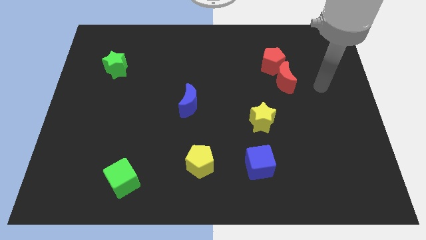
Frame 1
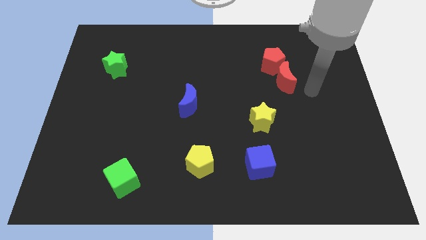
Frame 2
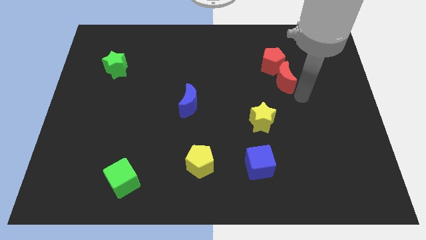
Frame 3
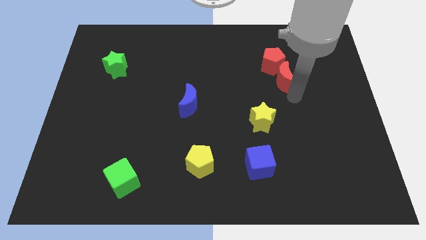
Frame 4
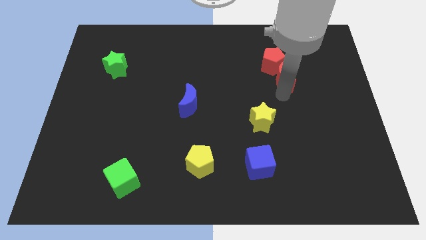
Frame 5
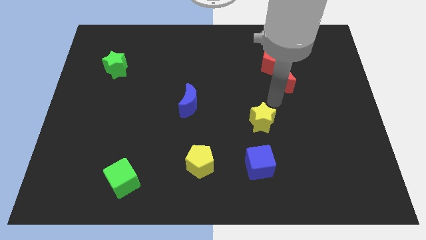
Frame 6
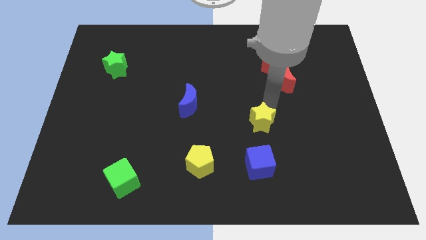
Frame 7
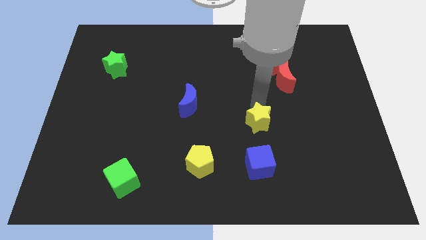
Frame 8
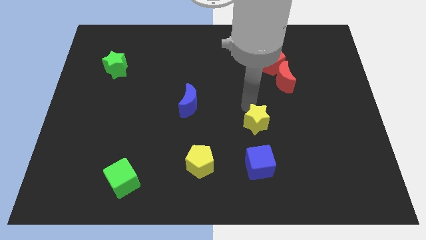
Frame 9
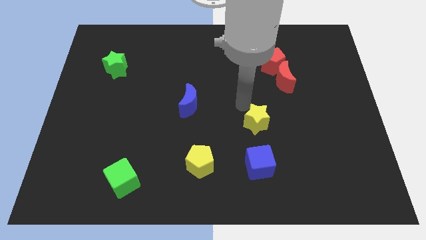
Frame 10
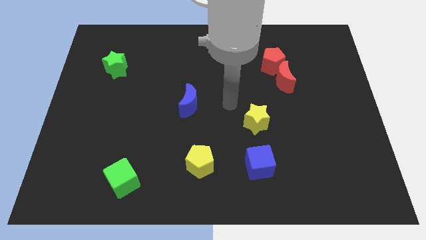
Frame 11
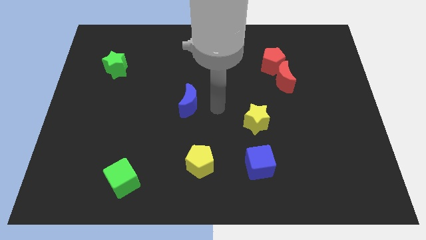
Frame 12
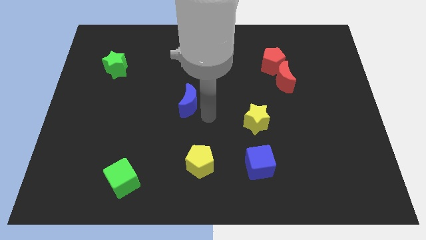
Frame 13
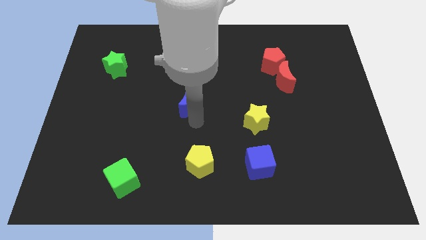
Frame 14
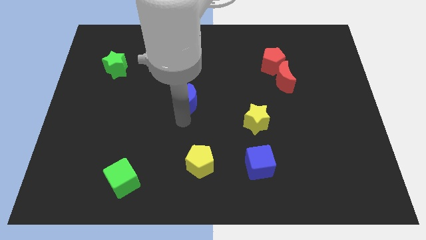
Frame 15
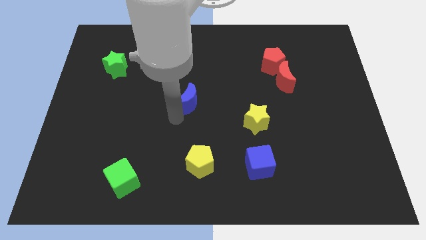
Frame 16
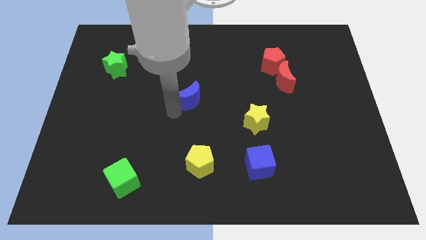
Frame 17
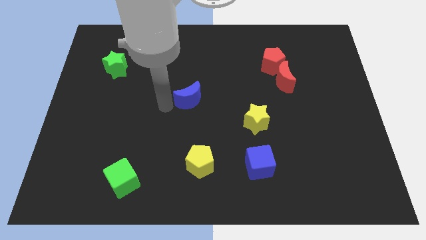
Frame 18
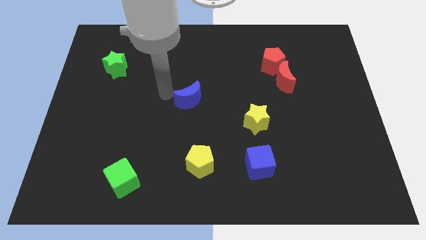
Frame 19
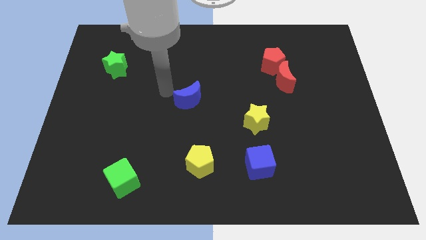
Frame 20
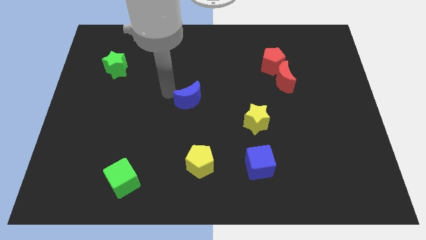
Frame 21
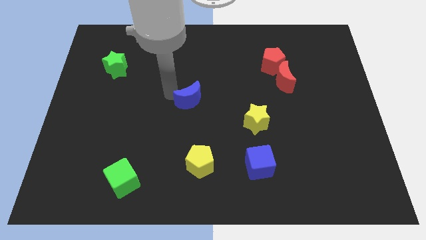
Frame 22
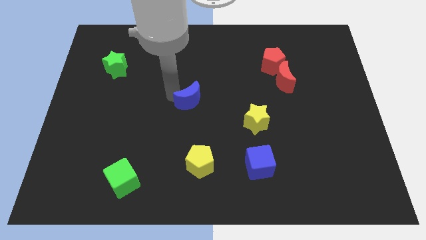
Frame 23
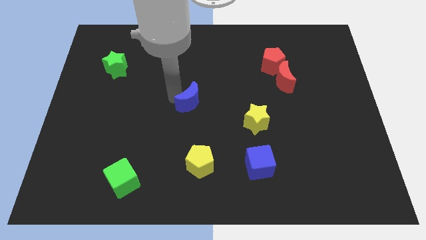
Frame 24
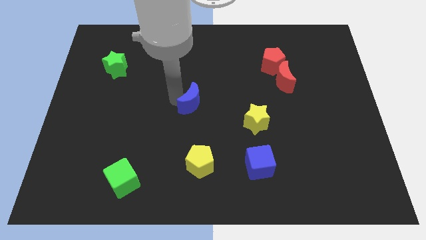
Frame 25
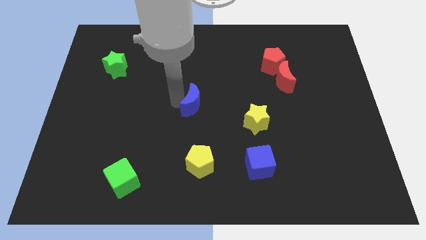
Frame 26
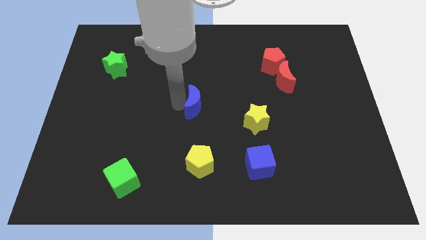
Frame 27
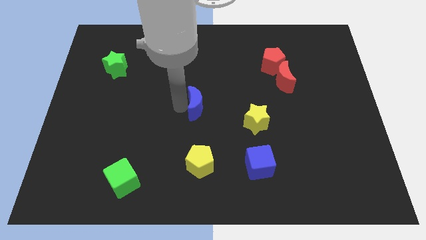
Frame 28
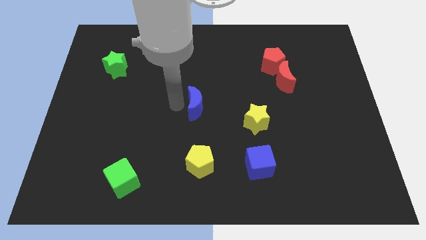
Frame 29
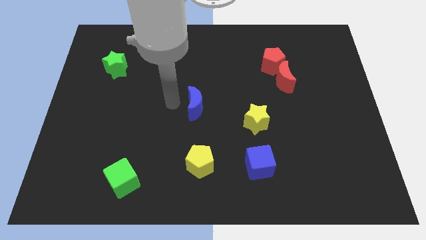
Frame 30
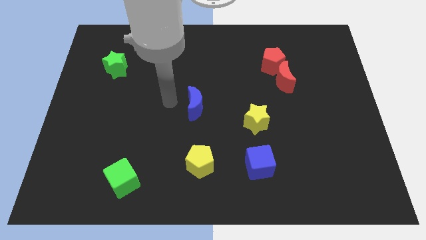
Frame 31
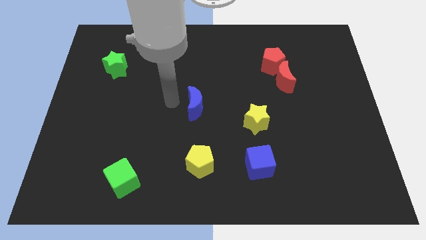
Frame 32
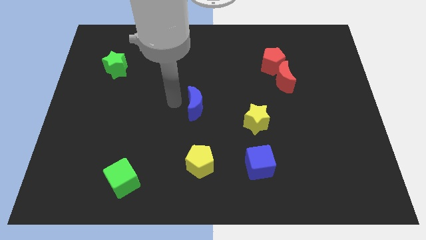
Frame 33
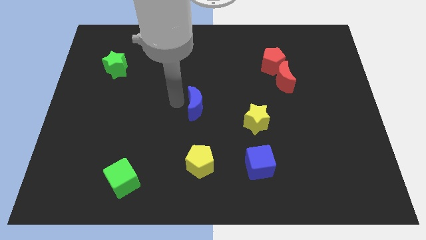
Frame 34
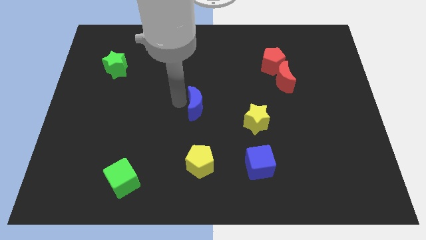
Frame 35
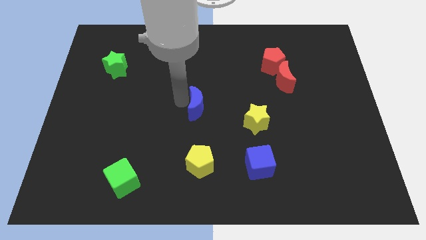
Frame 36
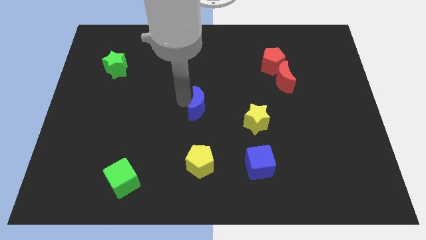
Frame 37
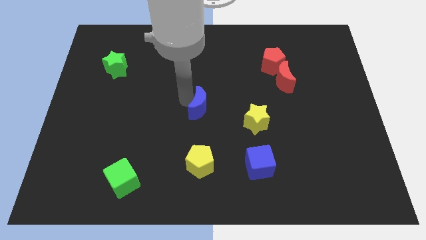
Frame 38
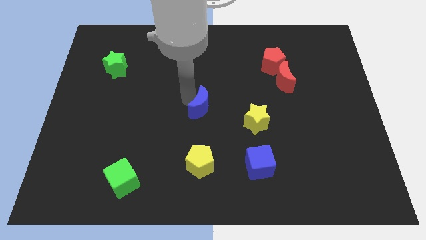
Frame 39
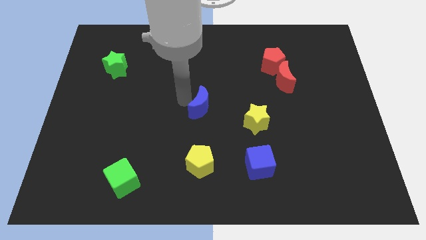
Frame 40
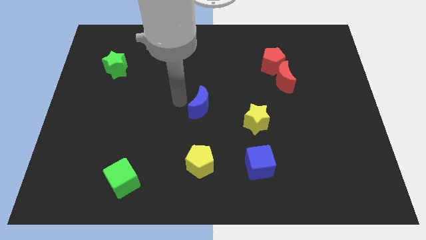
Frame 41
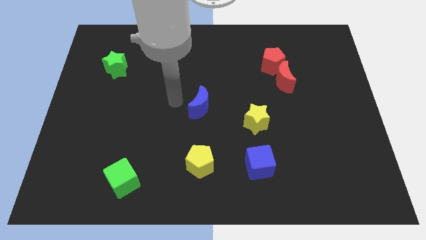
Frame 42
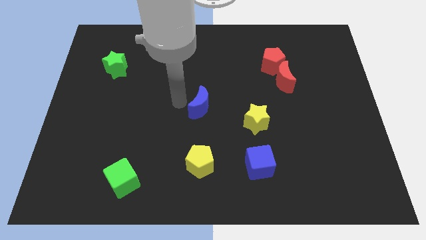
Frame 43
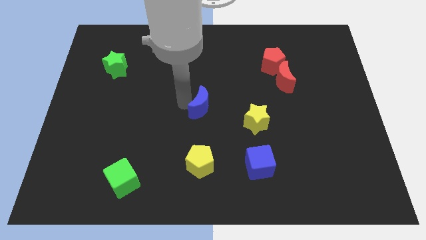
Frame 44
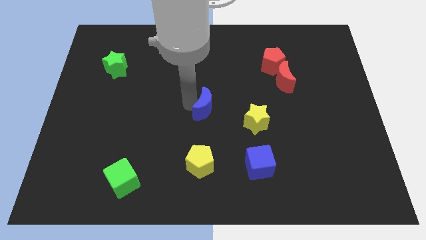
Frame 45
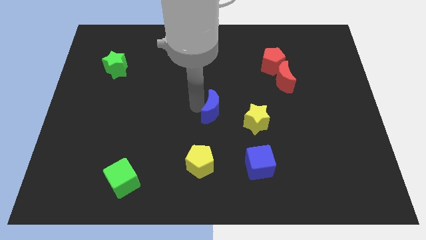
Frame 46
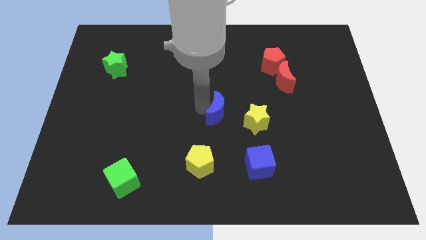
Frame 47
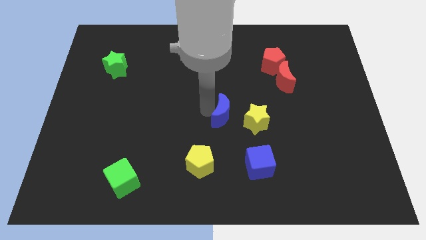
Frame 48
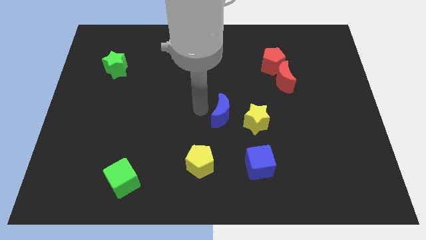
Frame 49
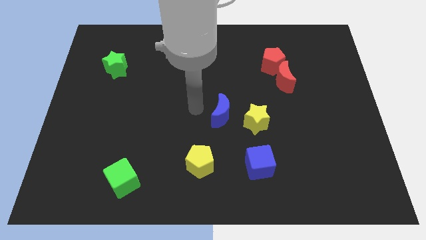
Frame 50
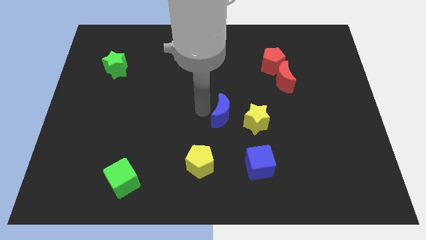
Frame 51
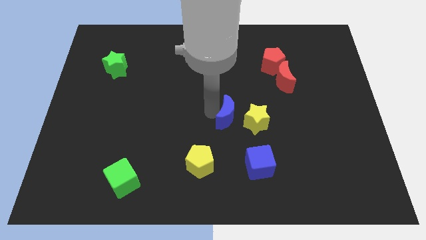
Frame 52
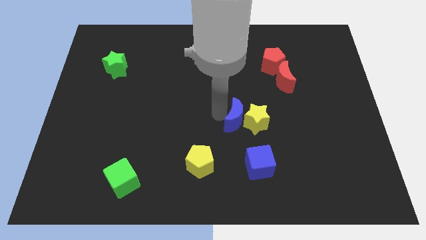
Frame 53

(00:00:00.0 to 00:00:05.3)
slide the blue moon close to the yellow star

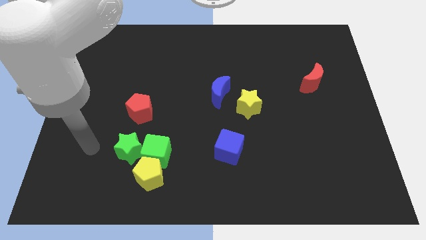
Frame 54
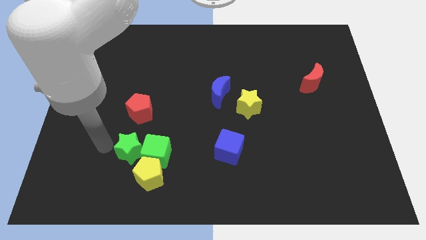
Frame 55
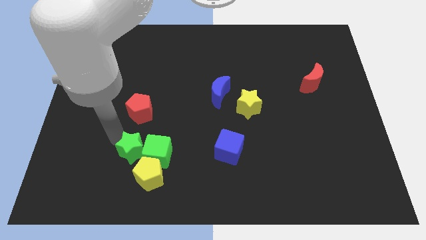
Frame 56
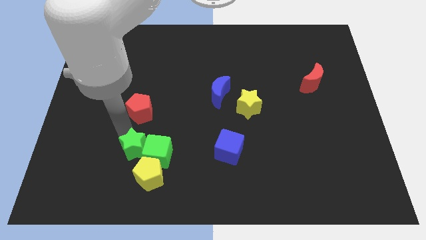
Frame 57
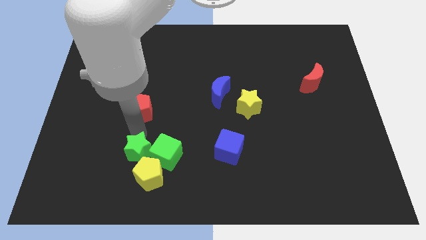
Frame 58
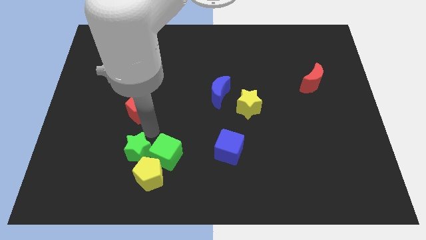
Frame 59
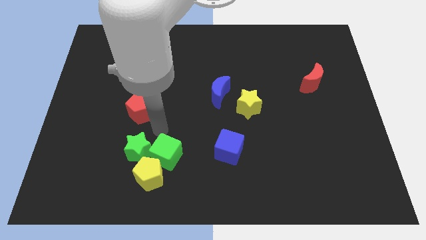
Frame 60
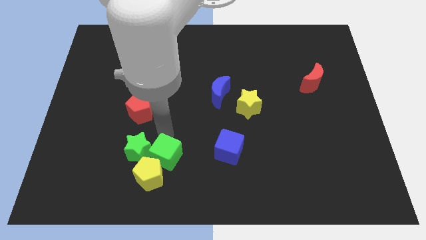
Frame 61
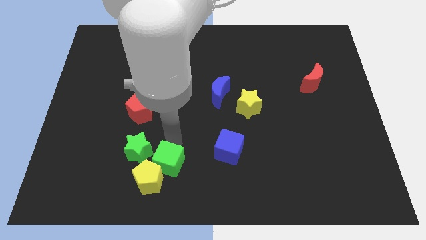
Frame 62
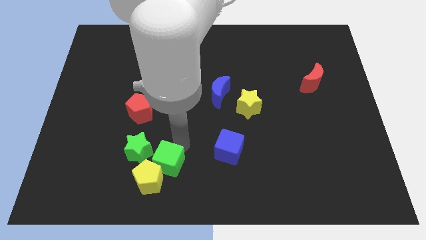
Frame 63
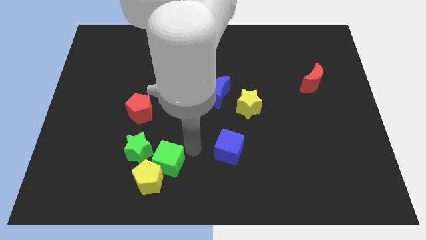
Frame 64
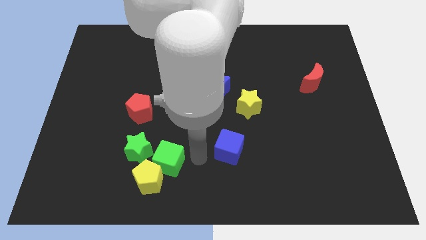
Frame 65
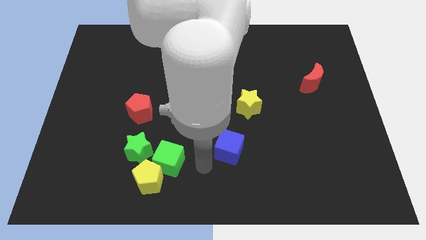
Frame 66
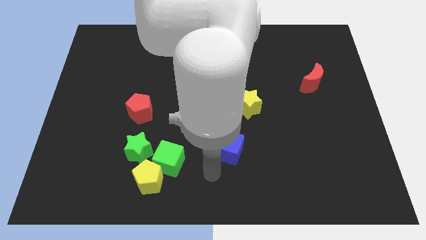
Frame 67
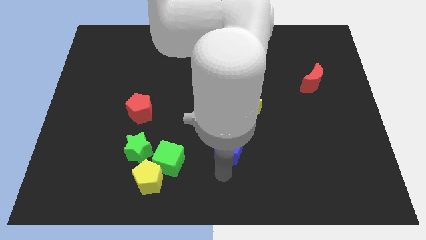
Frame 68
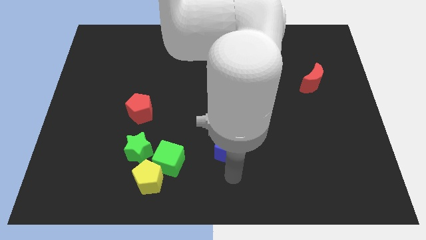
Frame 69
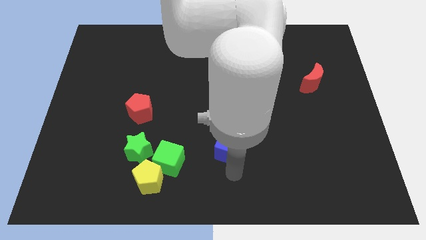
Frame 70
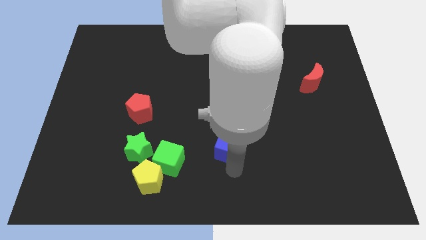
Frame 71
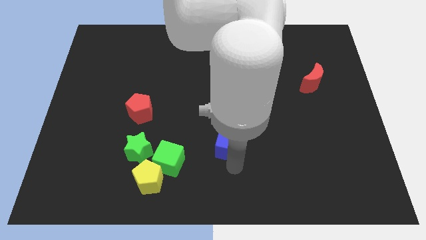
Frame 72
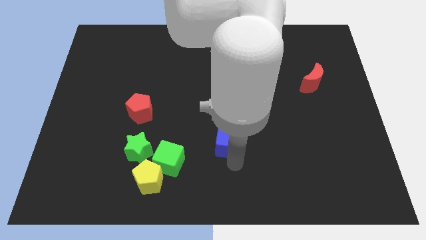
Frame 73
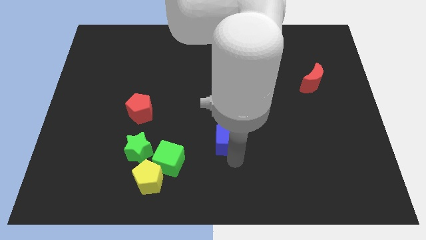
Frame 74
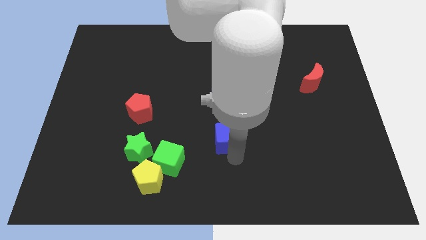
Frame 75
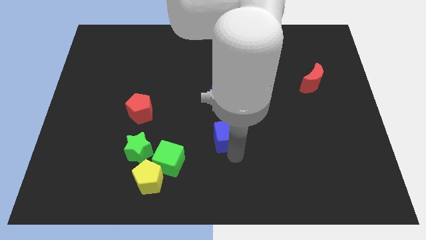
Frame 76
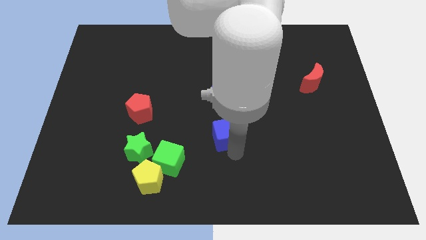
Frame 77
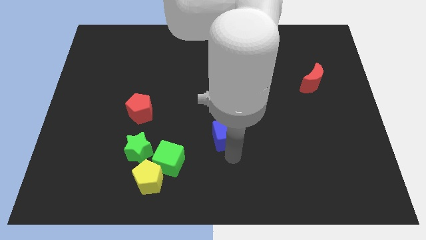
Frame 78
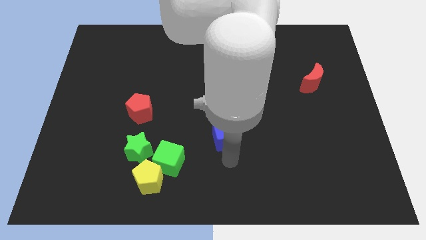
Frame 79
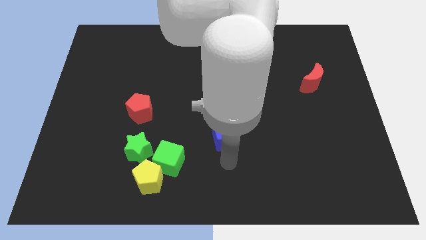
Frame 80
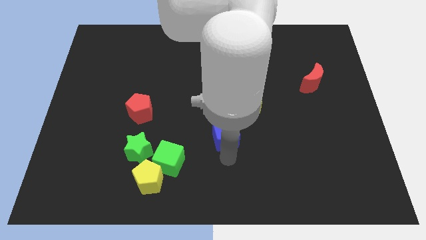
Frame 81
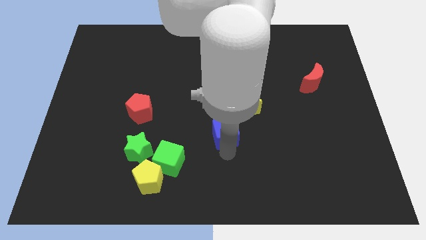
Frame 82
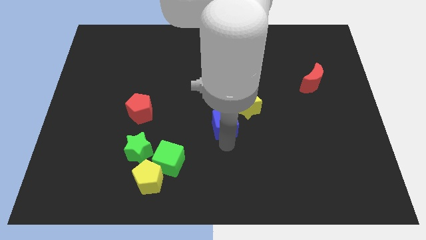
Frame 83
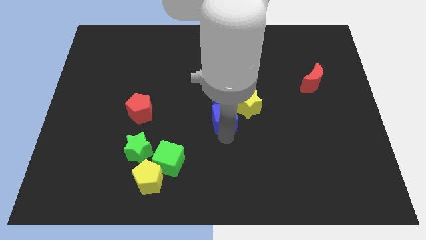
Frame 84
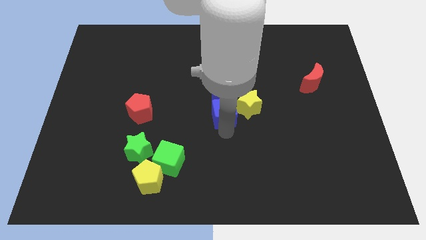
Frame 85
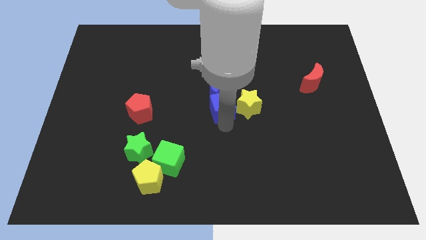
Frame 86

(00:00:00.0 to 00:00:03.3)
slide the blue cube towards the blue moon
